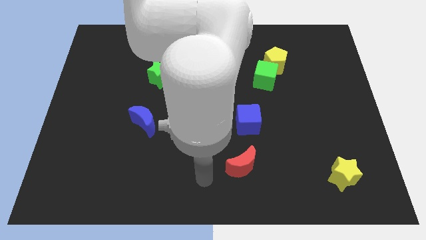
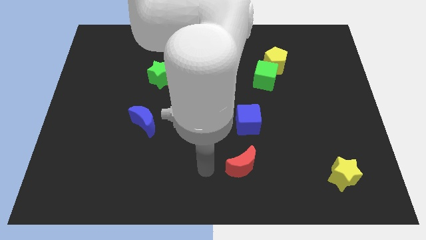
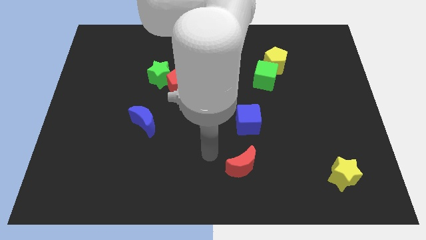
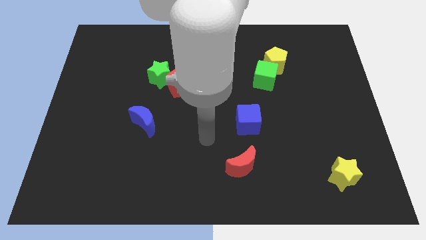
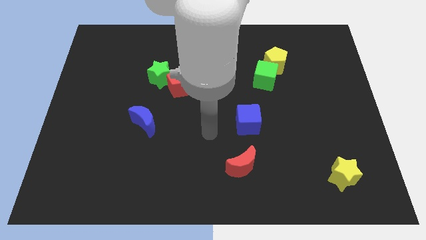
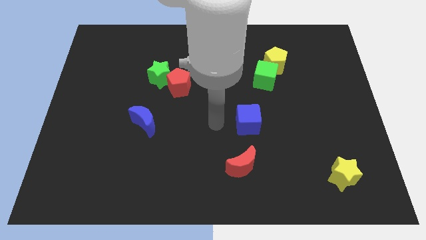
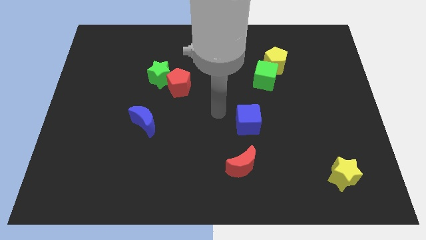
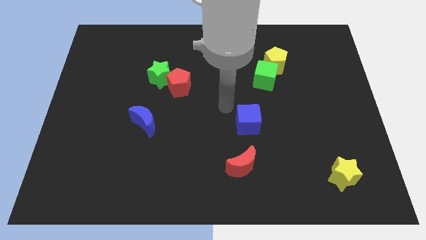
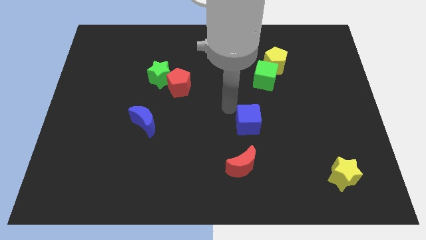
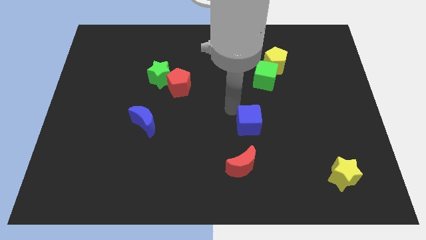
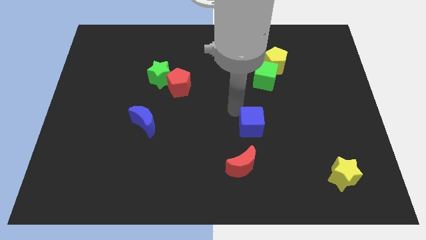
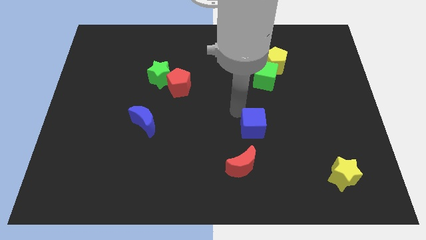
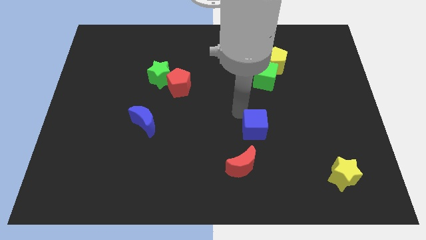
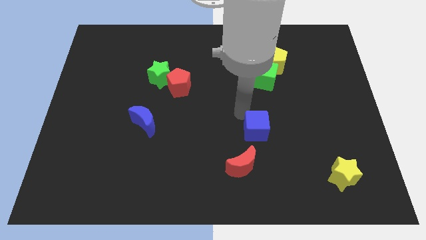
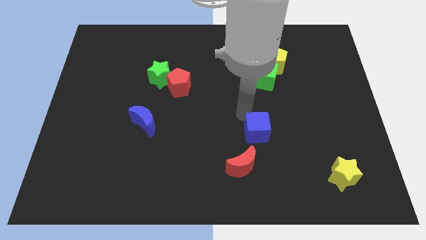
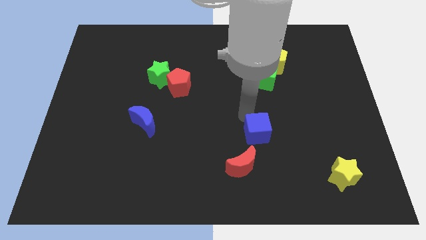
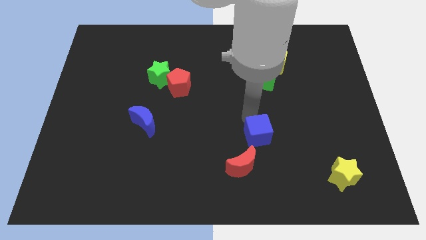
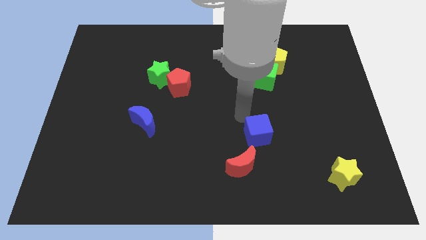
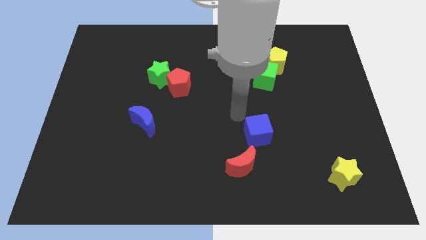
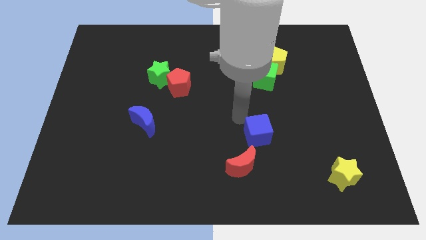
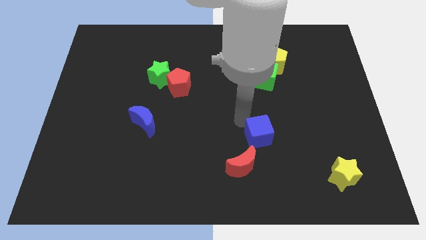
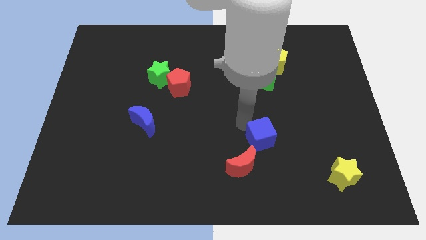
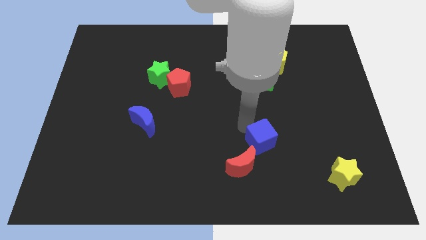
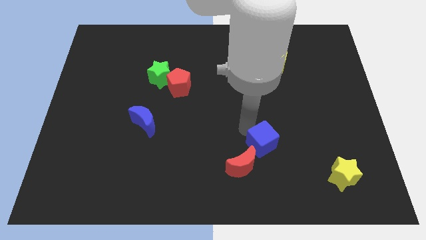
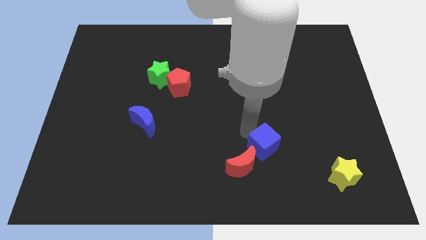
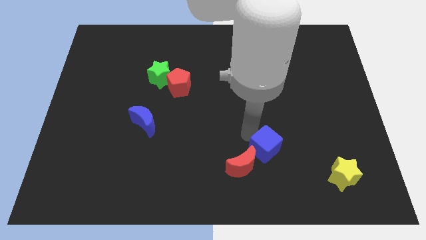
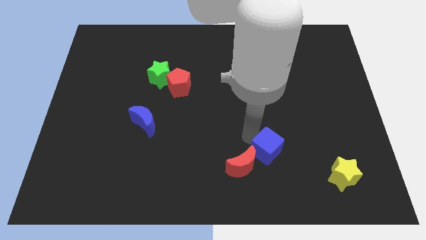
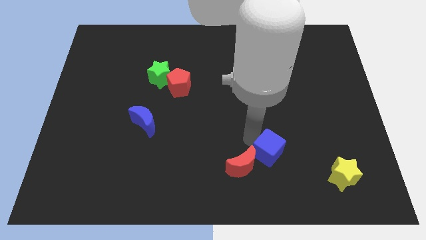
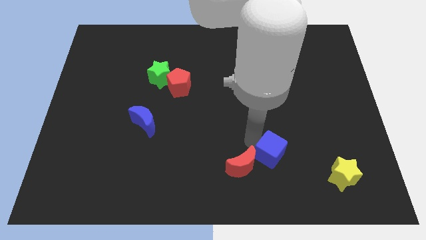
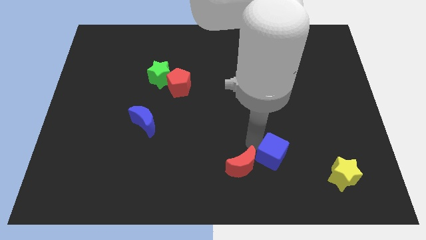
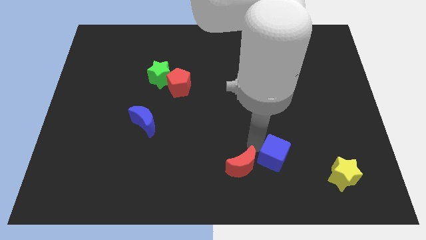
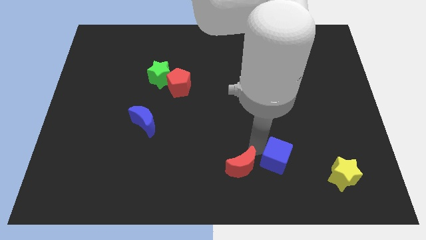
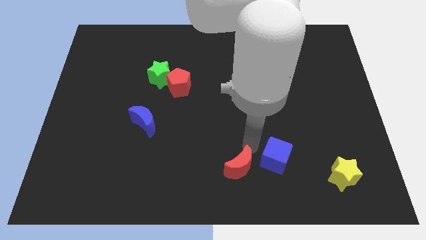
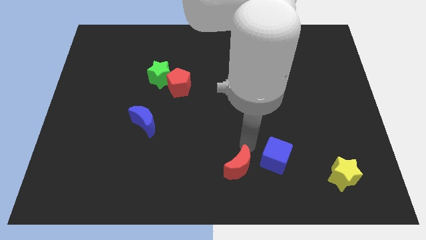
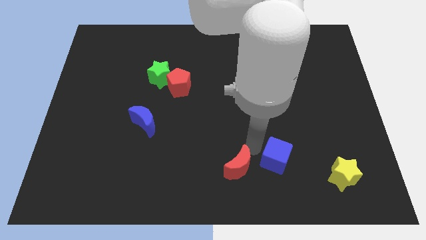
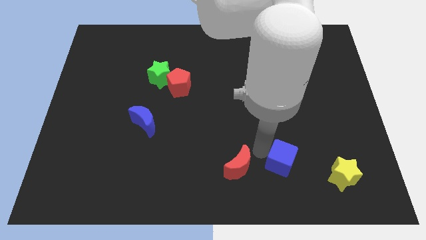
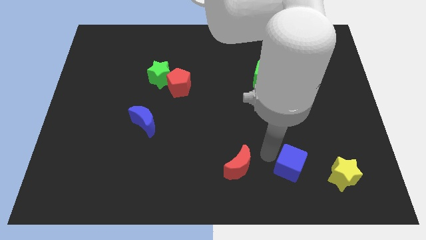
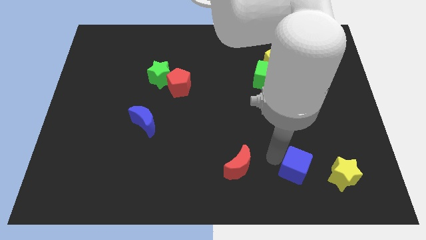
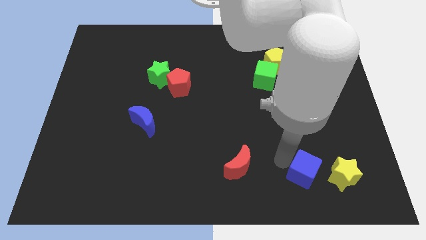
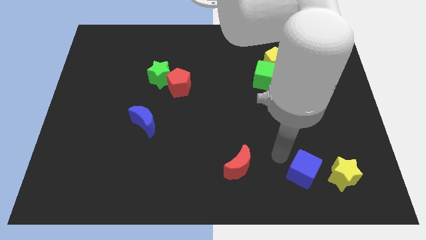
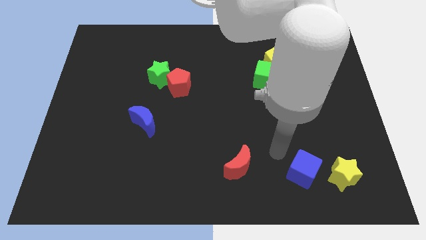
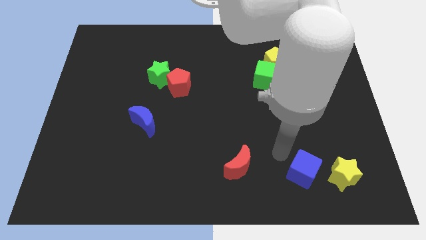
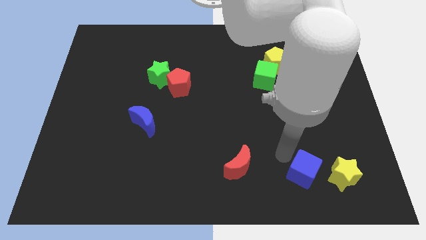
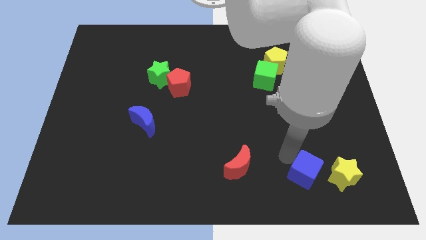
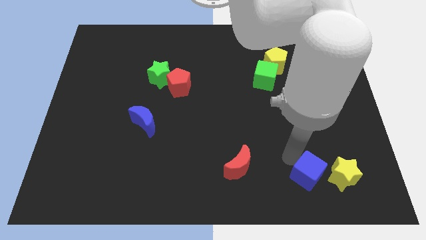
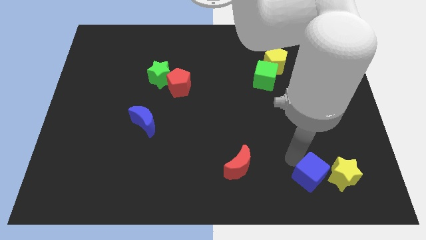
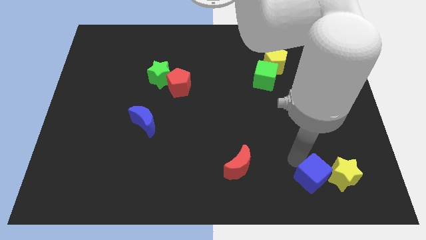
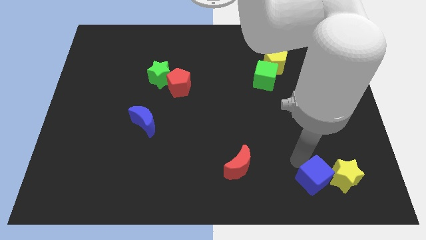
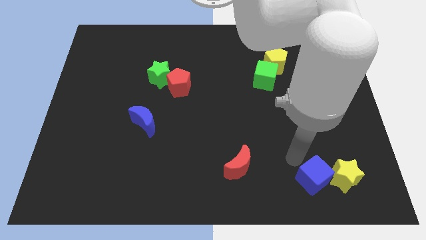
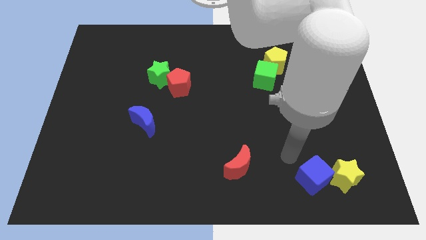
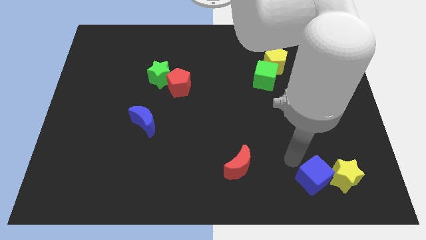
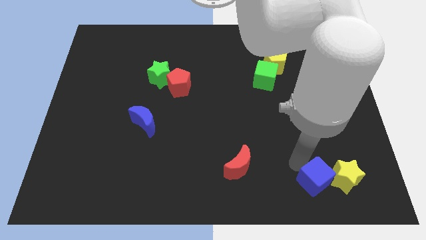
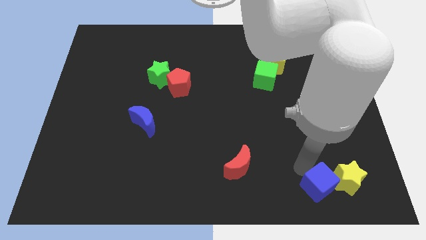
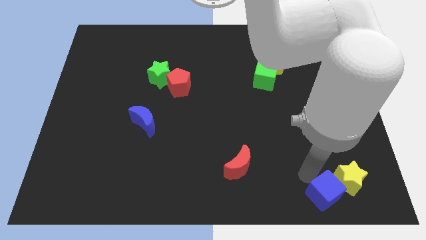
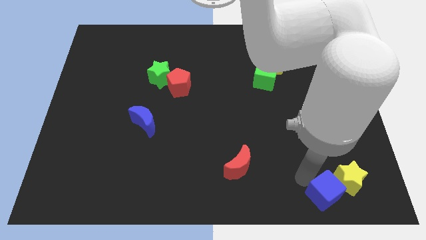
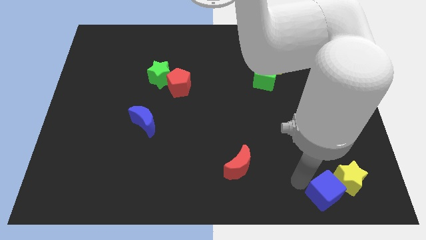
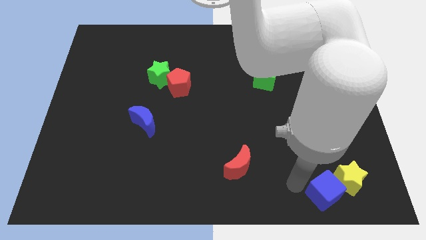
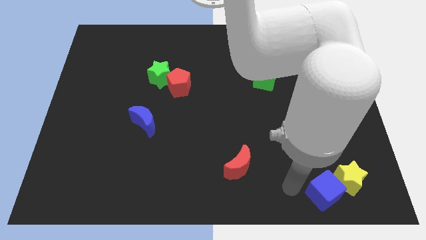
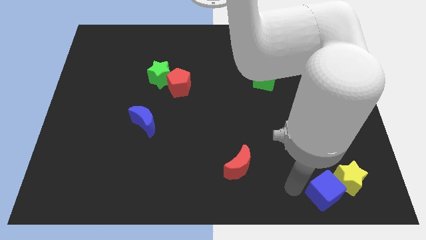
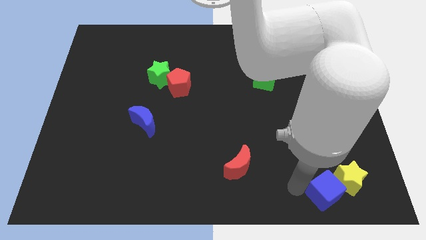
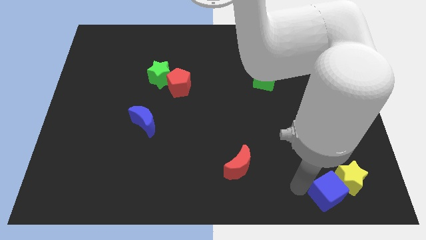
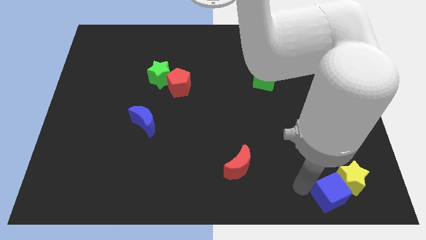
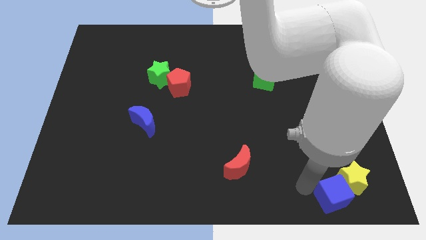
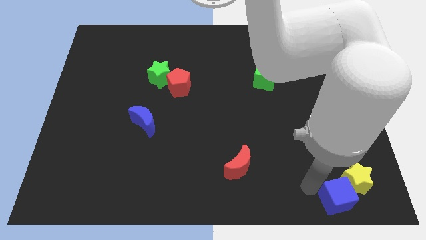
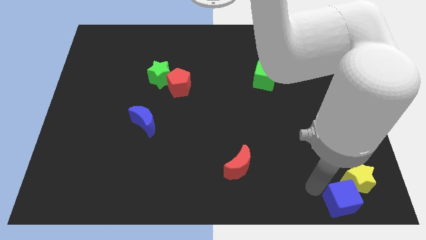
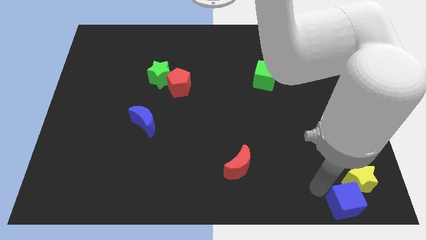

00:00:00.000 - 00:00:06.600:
slide the blue cube to the bottom right
